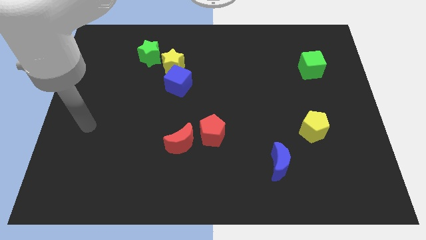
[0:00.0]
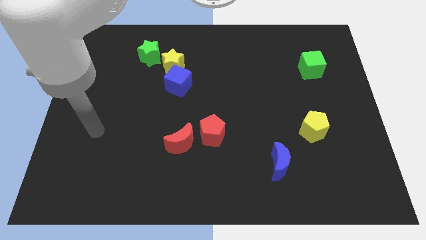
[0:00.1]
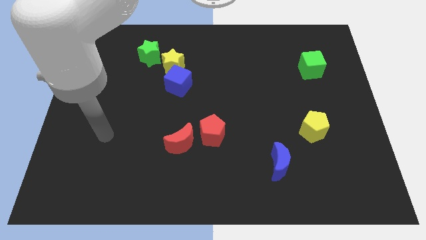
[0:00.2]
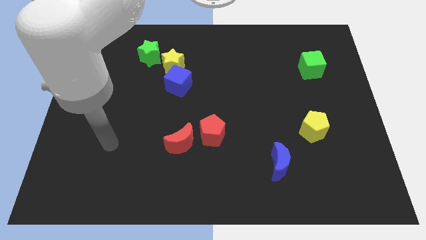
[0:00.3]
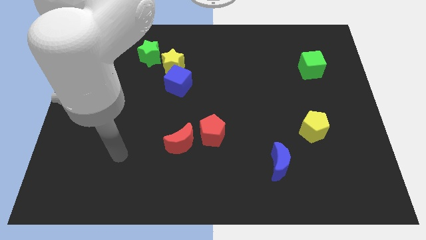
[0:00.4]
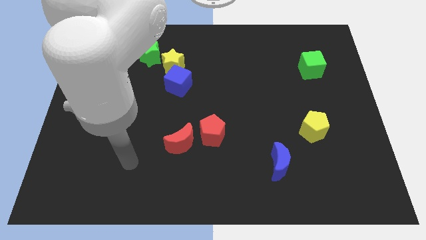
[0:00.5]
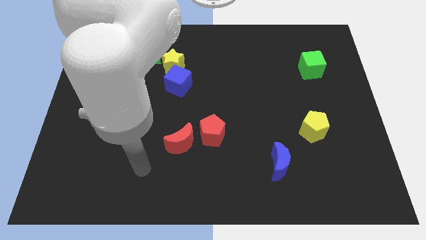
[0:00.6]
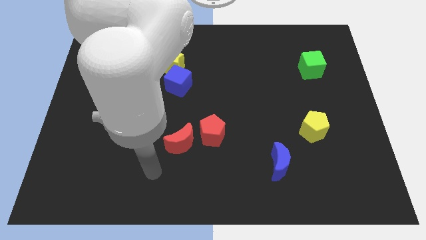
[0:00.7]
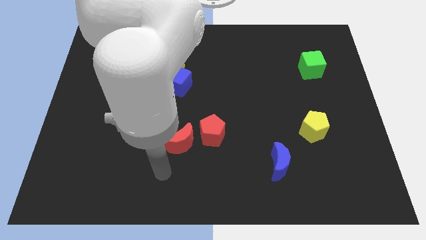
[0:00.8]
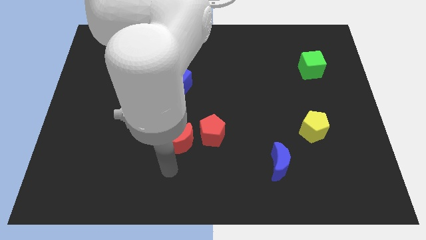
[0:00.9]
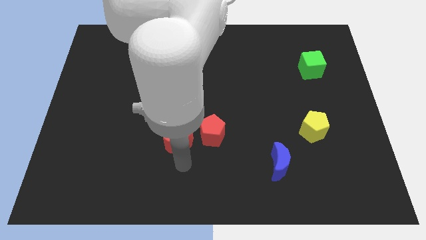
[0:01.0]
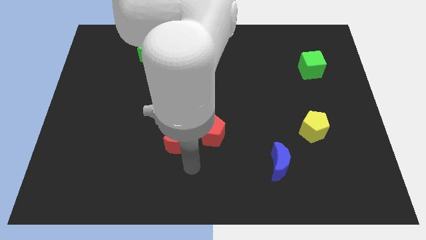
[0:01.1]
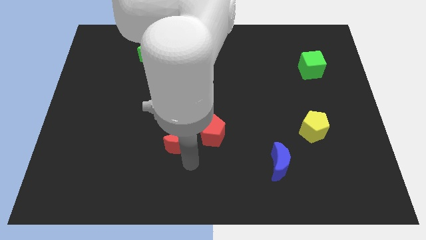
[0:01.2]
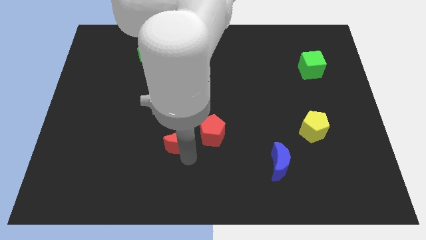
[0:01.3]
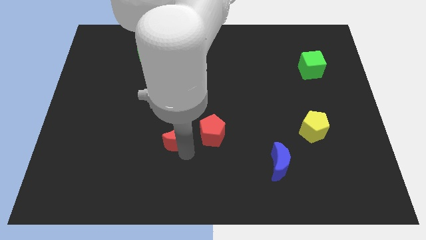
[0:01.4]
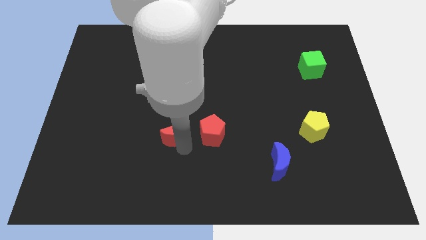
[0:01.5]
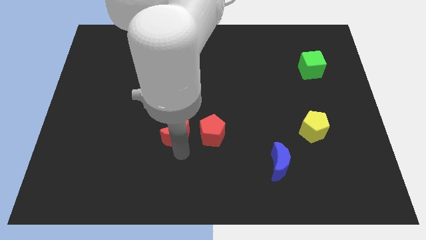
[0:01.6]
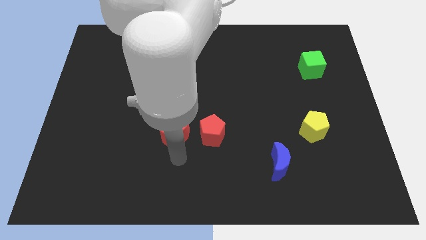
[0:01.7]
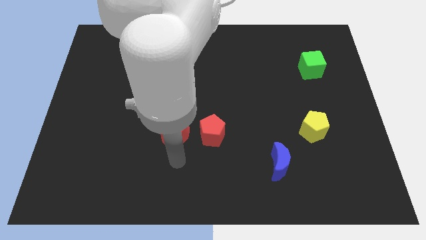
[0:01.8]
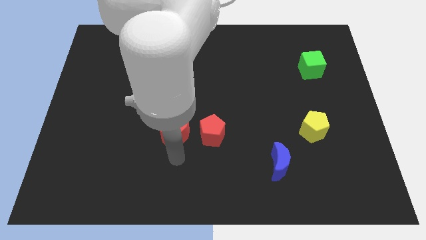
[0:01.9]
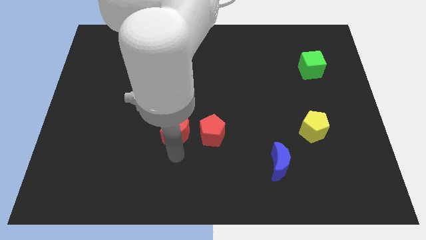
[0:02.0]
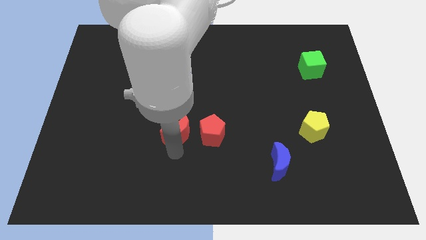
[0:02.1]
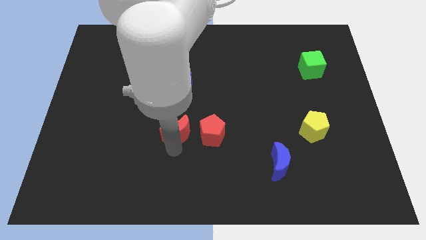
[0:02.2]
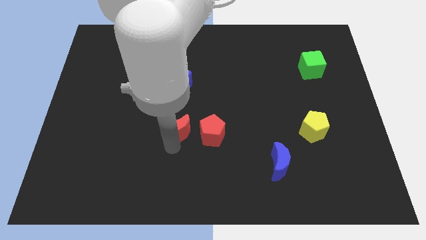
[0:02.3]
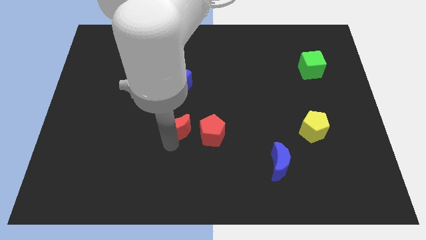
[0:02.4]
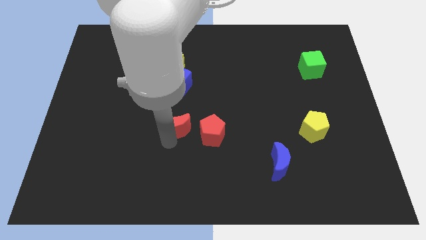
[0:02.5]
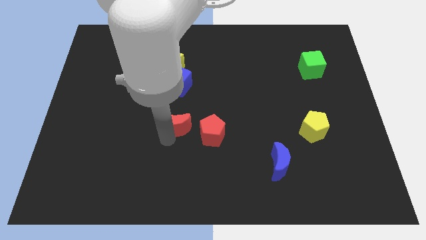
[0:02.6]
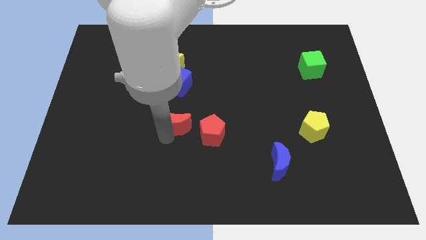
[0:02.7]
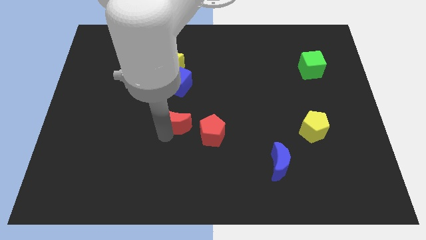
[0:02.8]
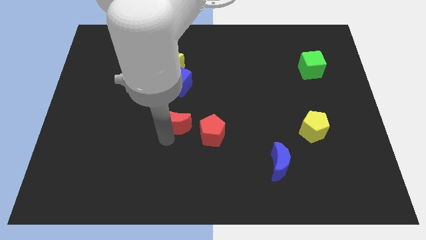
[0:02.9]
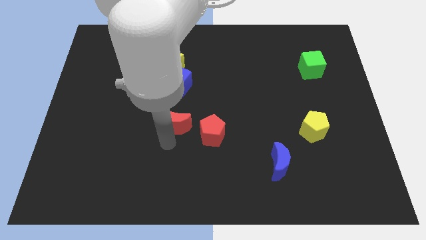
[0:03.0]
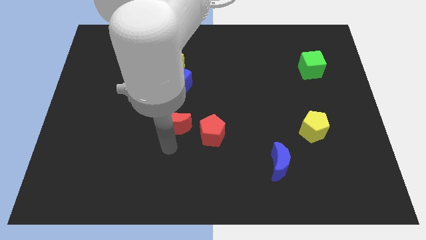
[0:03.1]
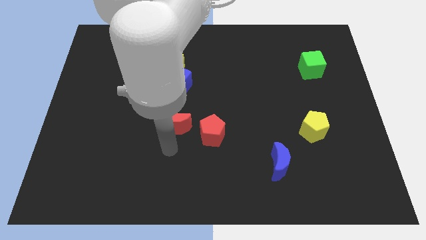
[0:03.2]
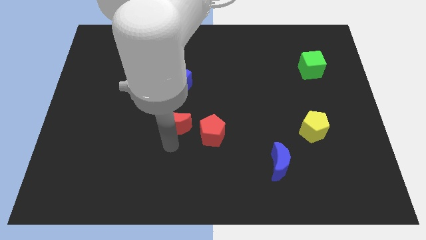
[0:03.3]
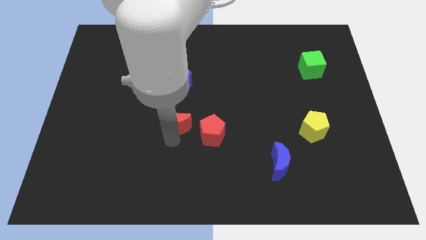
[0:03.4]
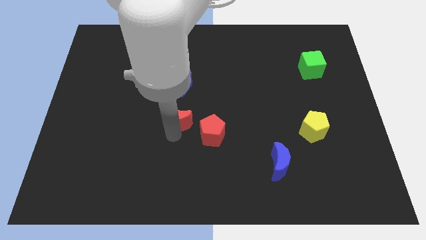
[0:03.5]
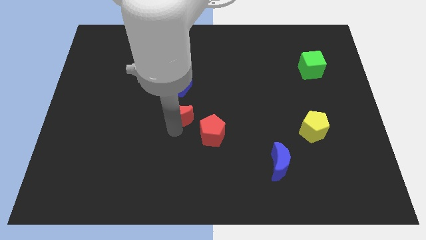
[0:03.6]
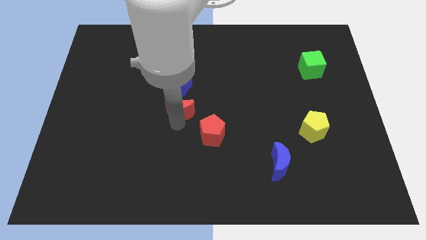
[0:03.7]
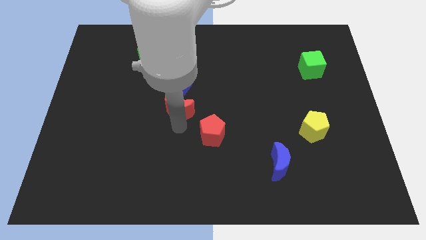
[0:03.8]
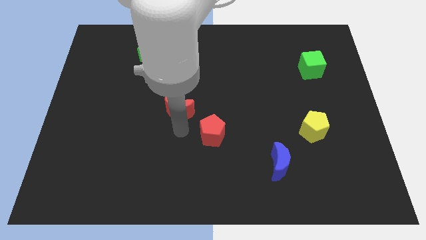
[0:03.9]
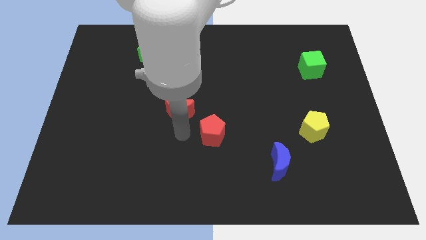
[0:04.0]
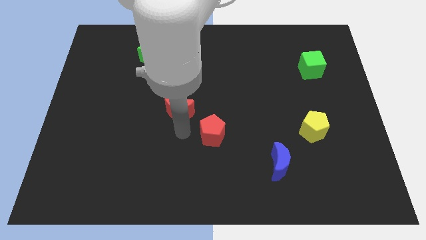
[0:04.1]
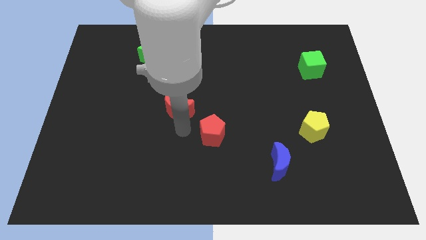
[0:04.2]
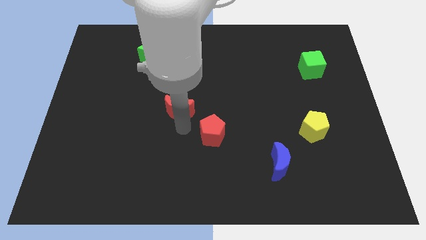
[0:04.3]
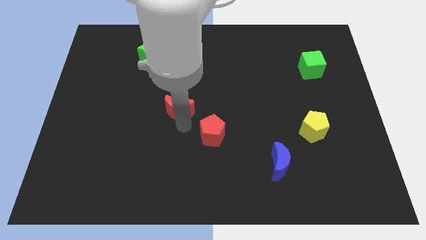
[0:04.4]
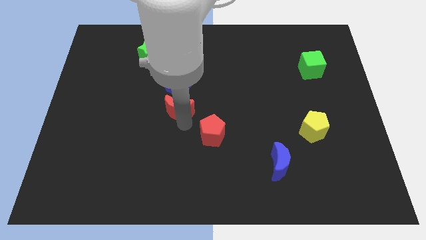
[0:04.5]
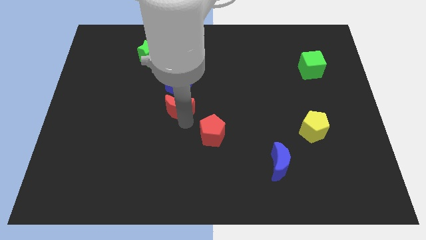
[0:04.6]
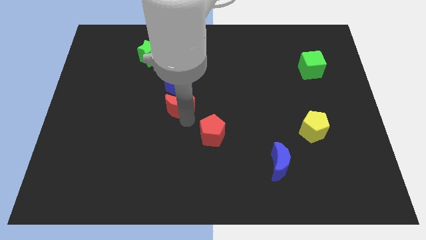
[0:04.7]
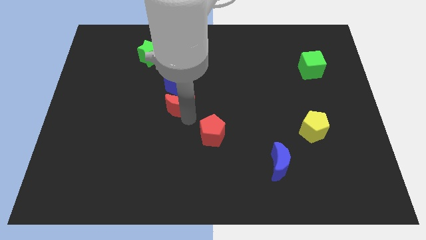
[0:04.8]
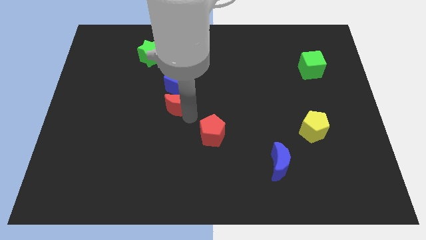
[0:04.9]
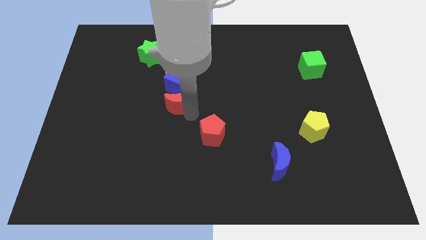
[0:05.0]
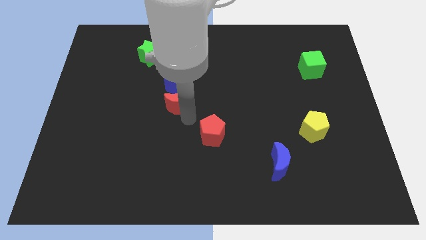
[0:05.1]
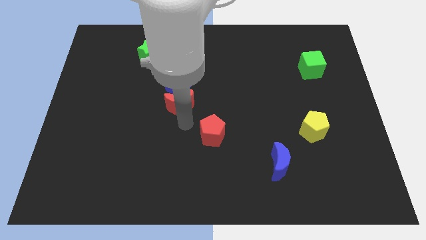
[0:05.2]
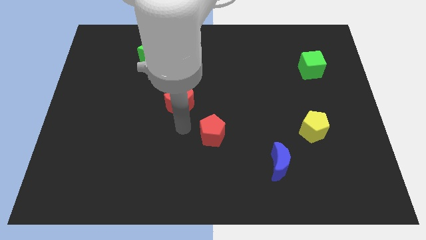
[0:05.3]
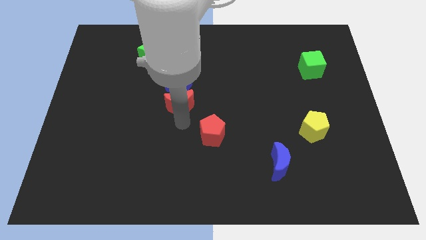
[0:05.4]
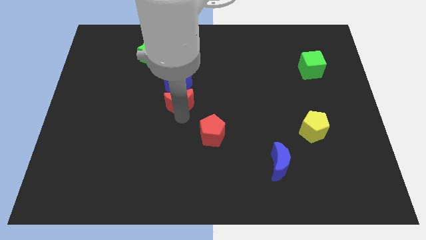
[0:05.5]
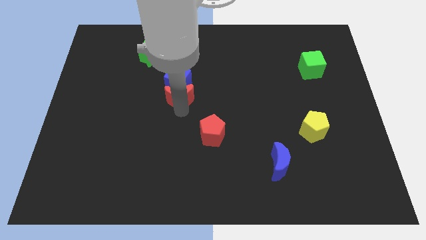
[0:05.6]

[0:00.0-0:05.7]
slide the red moon towards the blue cube

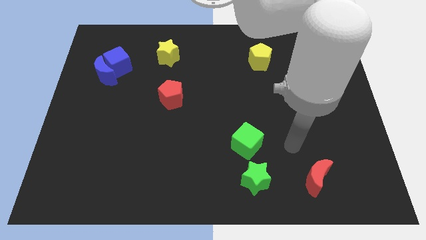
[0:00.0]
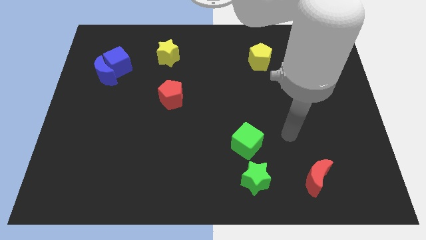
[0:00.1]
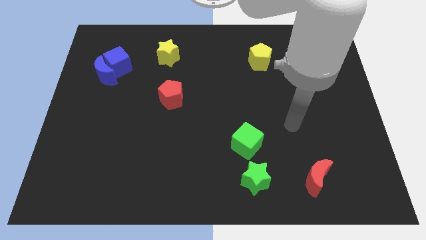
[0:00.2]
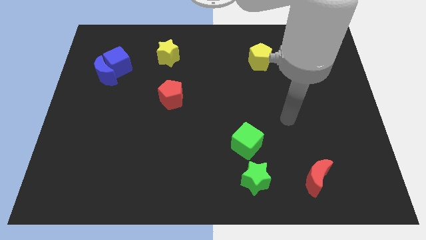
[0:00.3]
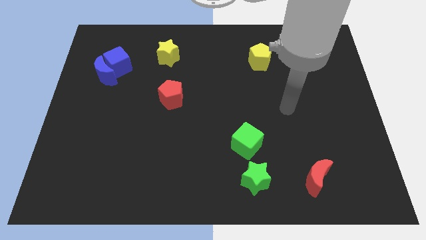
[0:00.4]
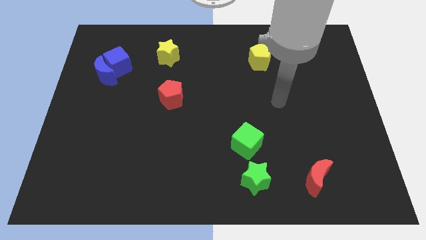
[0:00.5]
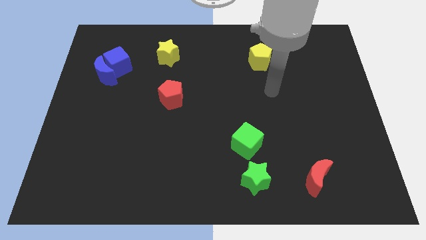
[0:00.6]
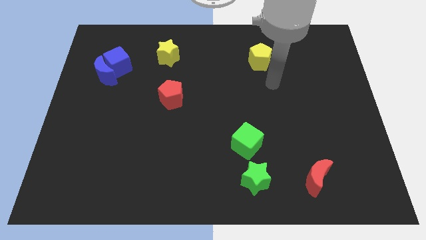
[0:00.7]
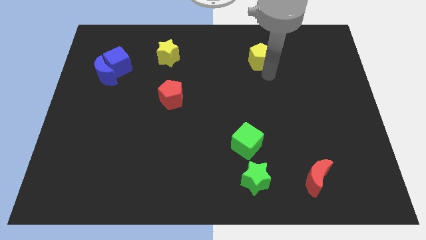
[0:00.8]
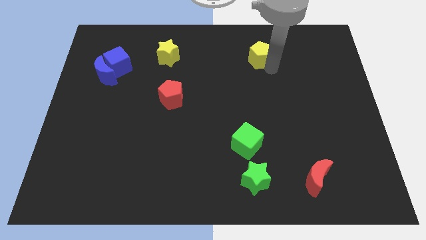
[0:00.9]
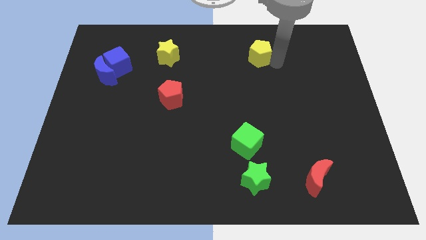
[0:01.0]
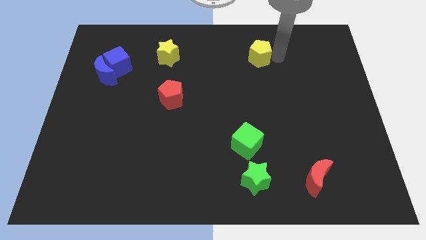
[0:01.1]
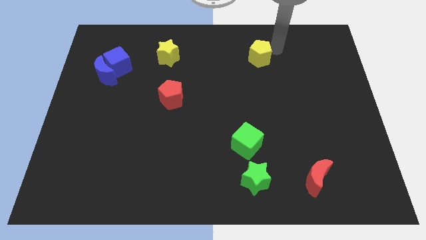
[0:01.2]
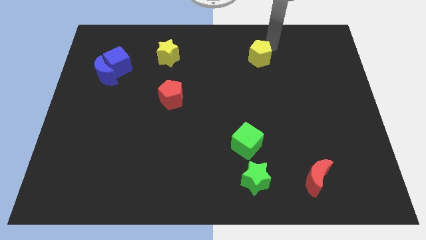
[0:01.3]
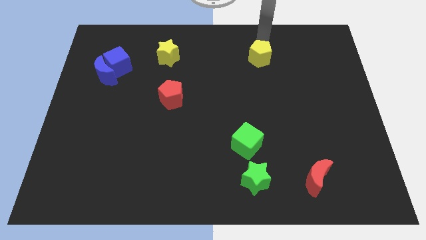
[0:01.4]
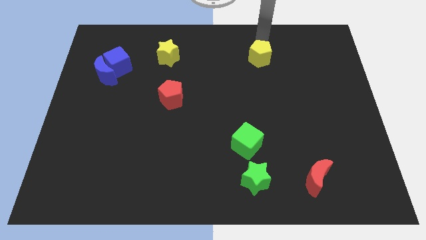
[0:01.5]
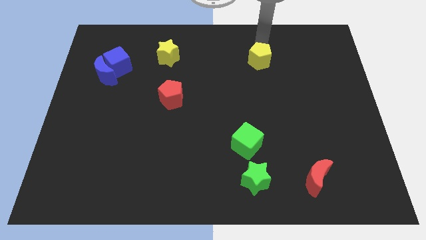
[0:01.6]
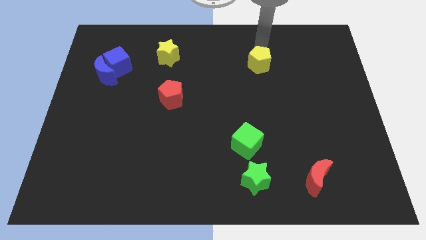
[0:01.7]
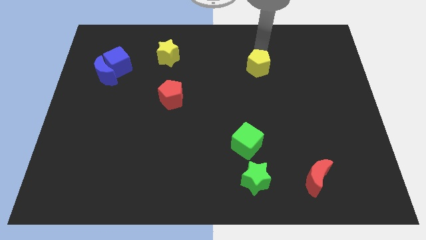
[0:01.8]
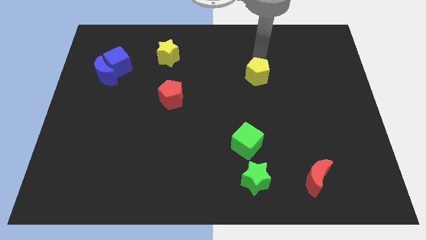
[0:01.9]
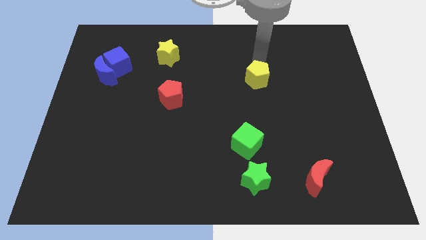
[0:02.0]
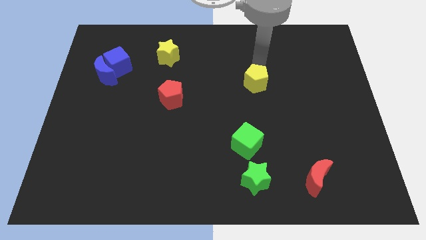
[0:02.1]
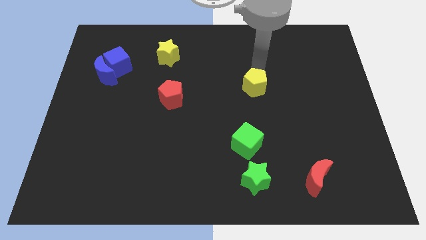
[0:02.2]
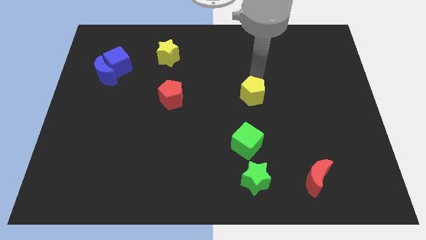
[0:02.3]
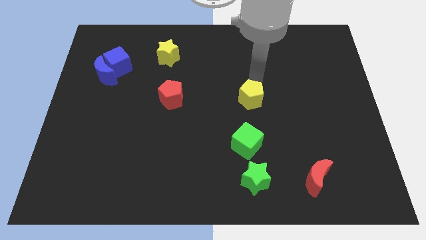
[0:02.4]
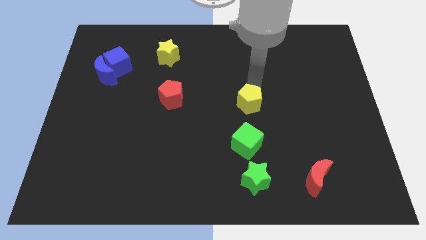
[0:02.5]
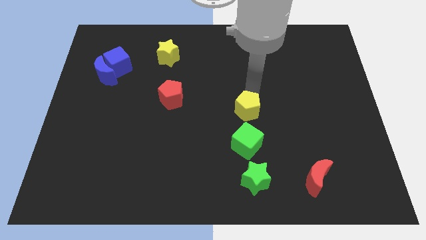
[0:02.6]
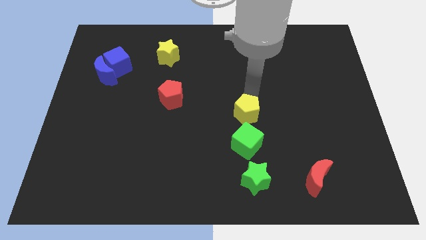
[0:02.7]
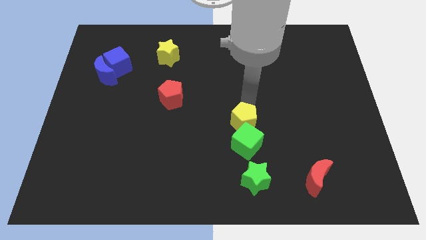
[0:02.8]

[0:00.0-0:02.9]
push the yellow pentagon close to the green cube
